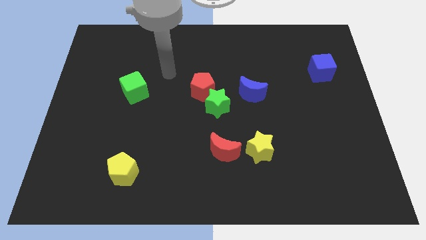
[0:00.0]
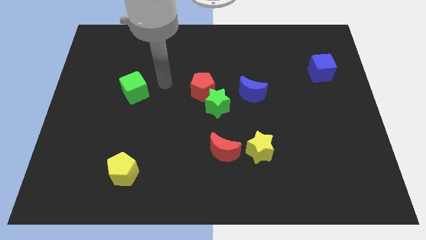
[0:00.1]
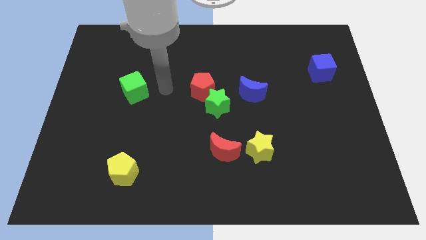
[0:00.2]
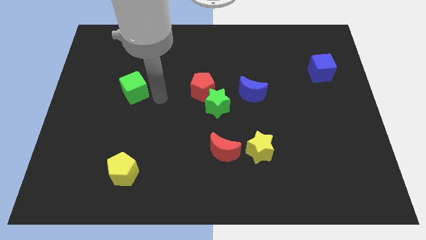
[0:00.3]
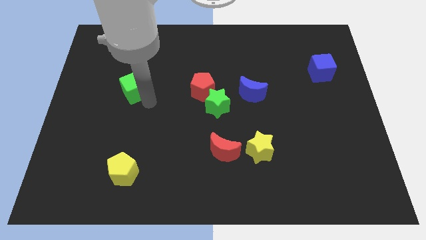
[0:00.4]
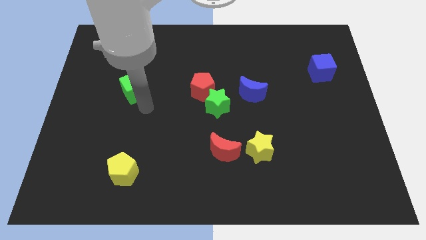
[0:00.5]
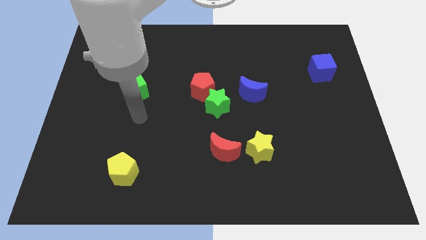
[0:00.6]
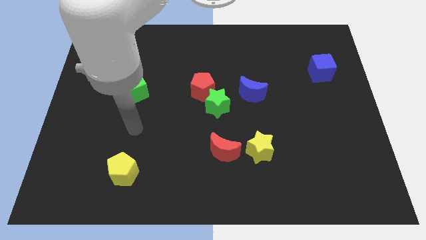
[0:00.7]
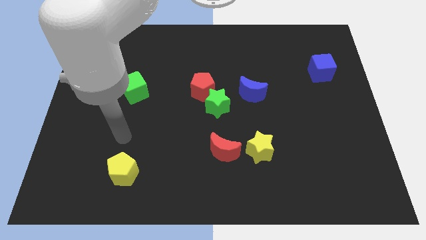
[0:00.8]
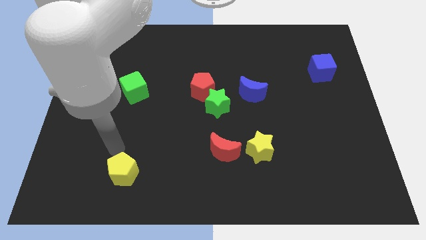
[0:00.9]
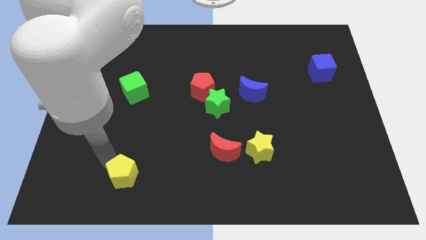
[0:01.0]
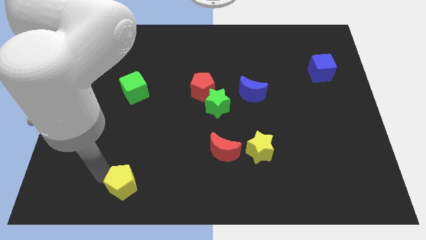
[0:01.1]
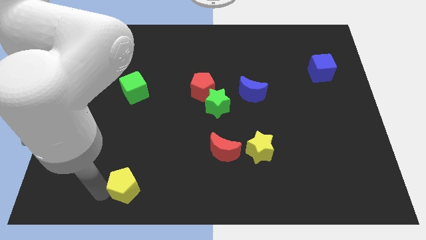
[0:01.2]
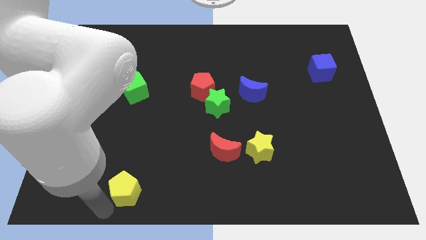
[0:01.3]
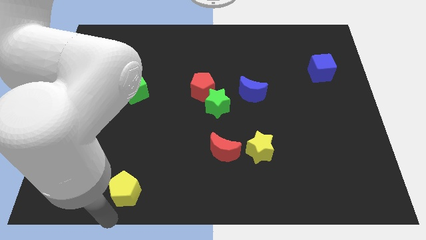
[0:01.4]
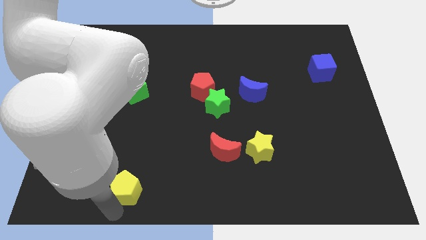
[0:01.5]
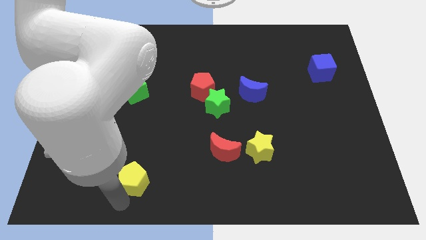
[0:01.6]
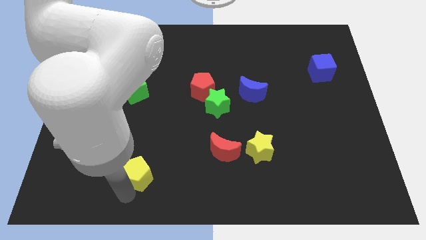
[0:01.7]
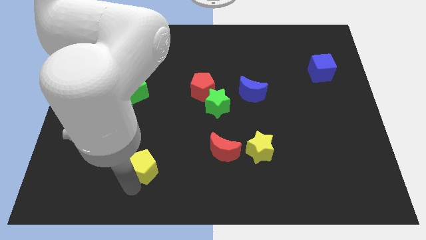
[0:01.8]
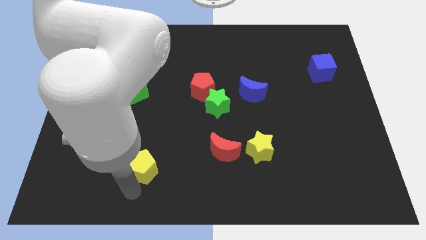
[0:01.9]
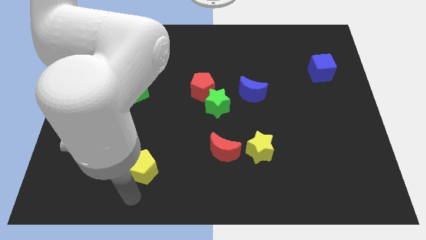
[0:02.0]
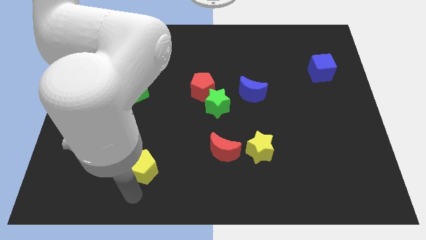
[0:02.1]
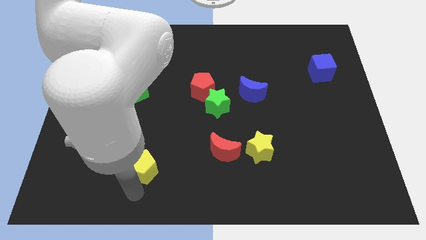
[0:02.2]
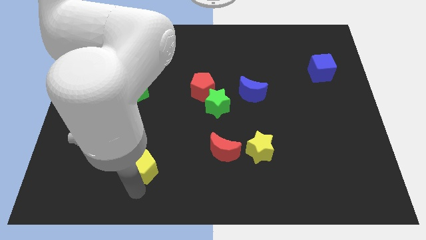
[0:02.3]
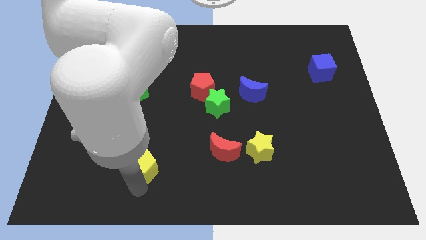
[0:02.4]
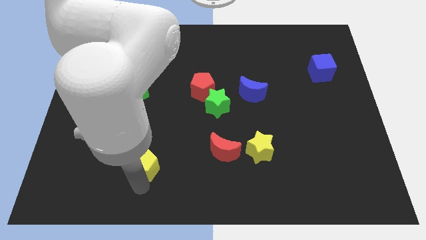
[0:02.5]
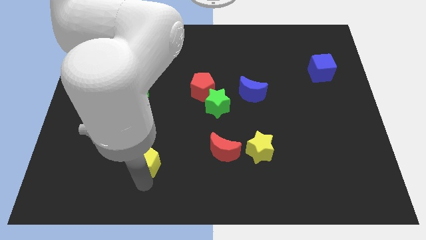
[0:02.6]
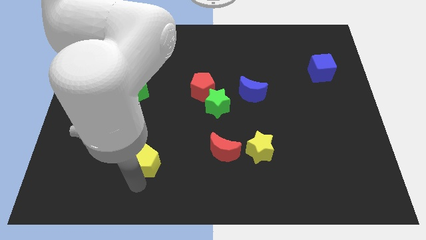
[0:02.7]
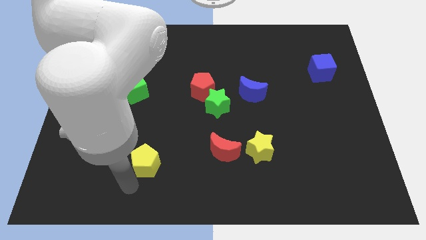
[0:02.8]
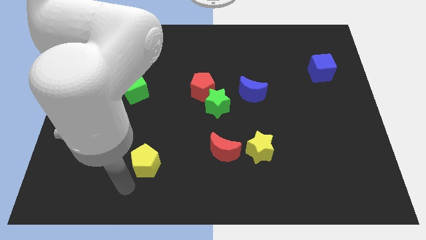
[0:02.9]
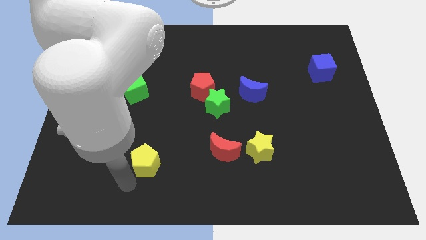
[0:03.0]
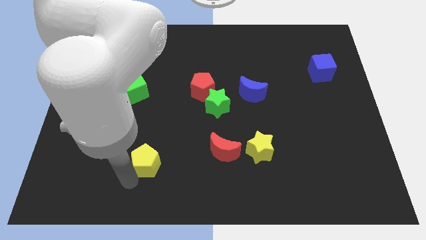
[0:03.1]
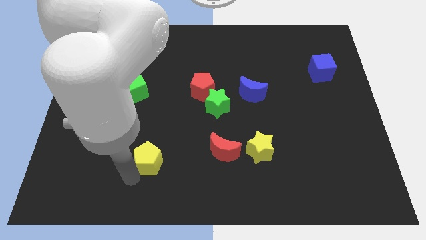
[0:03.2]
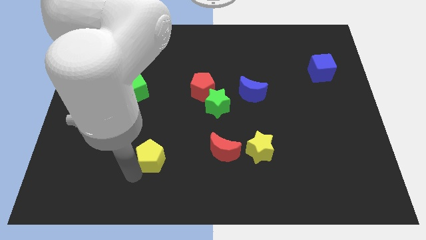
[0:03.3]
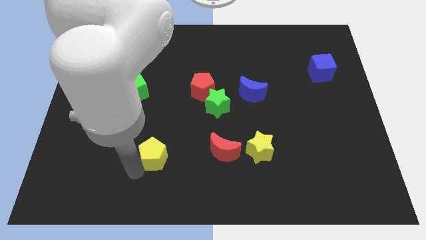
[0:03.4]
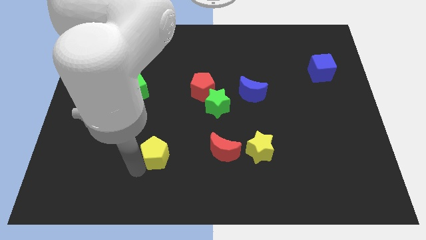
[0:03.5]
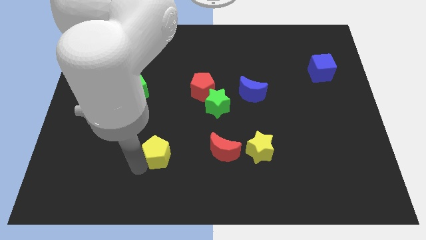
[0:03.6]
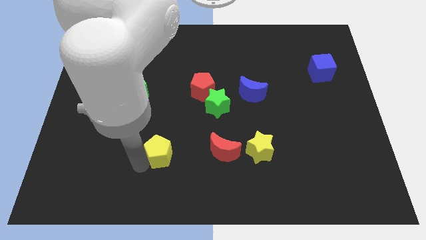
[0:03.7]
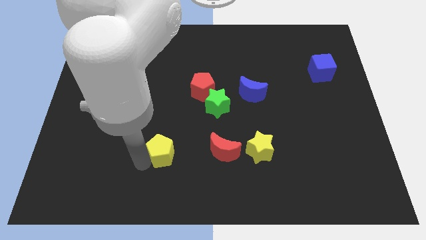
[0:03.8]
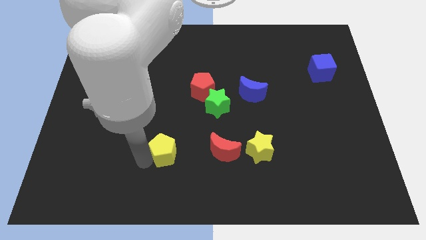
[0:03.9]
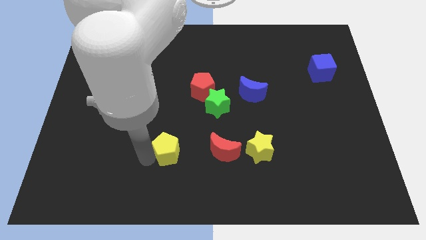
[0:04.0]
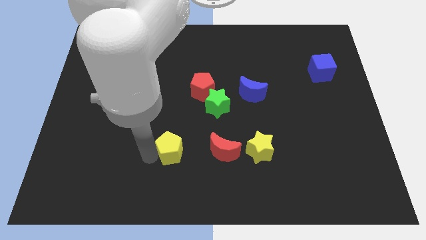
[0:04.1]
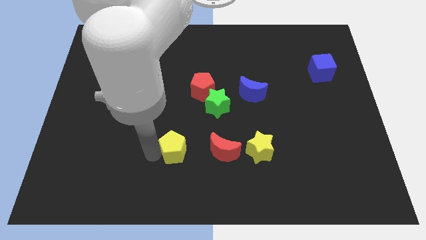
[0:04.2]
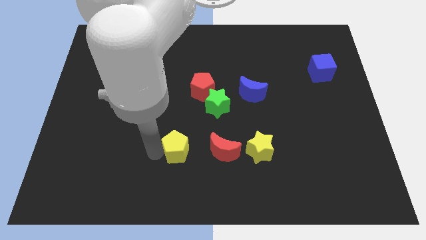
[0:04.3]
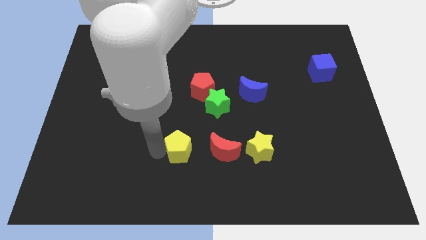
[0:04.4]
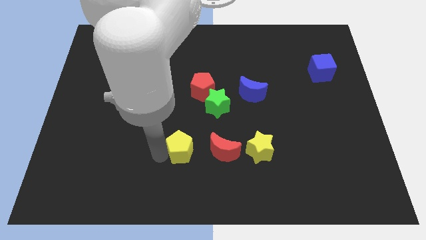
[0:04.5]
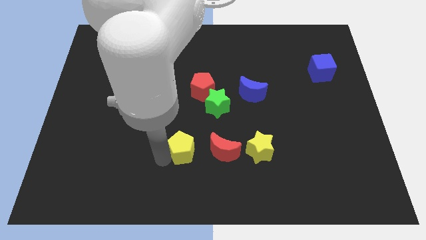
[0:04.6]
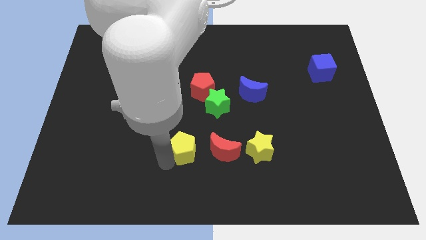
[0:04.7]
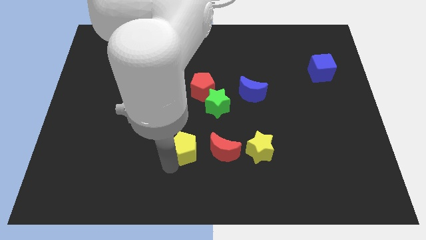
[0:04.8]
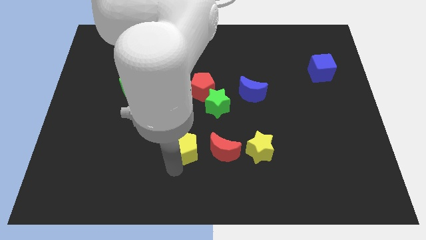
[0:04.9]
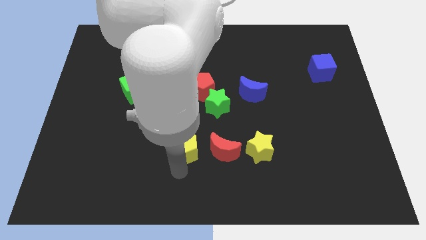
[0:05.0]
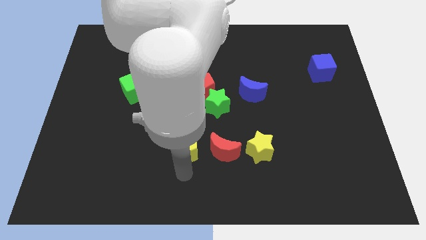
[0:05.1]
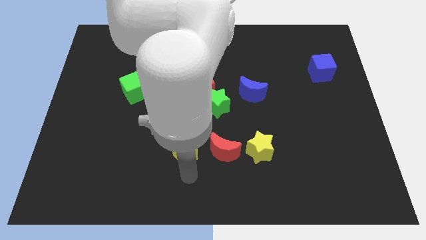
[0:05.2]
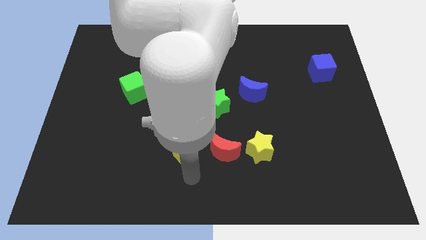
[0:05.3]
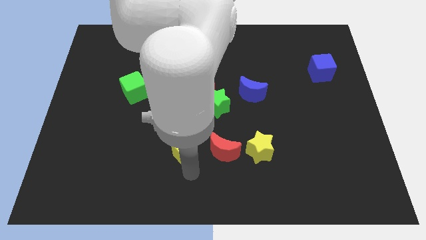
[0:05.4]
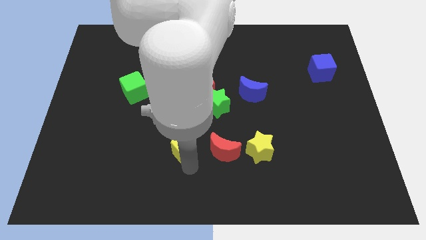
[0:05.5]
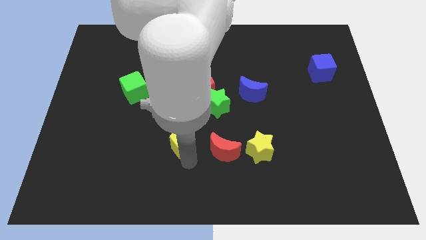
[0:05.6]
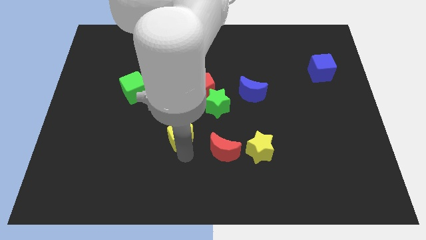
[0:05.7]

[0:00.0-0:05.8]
move the yellow pentagon to the bottom side of the red pentagon

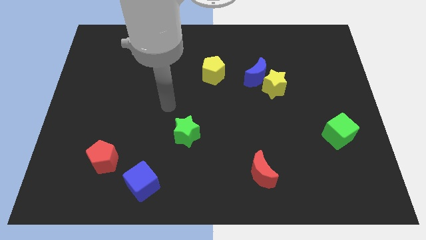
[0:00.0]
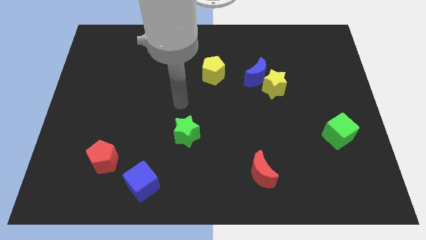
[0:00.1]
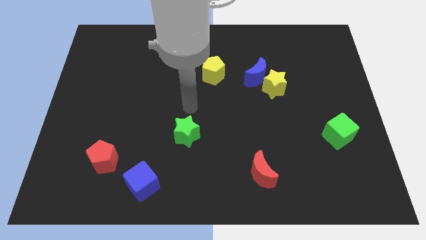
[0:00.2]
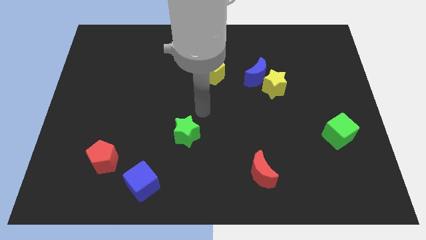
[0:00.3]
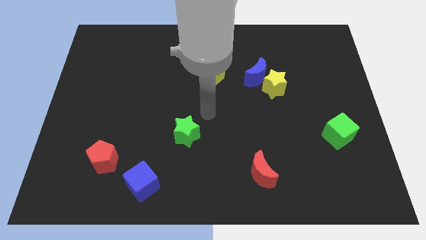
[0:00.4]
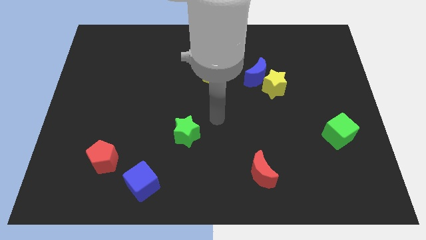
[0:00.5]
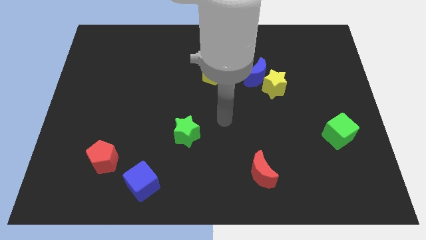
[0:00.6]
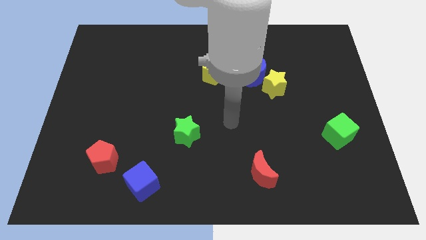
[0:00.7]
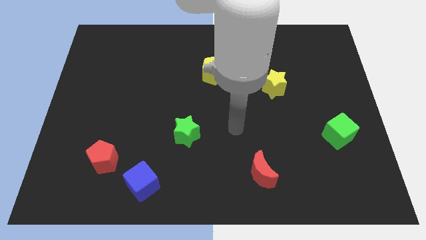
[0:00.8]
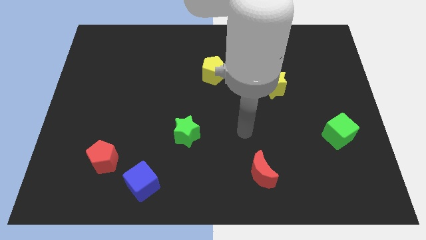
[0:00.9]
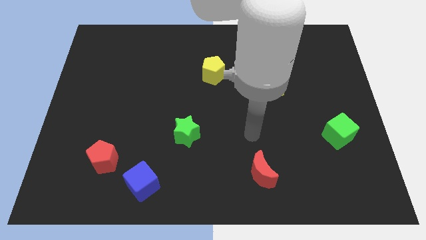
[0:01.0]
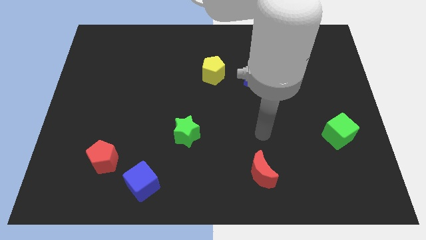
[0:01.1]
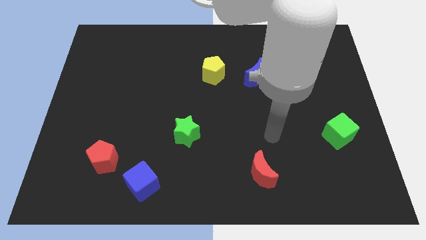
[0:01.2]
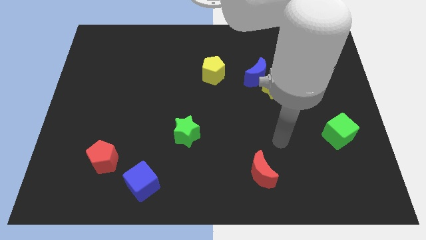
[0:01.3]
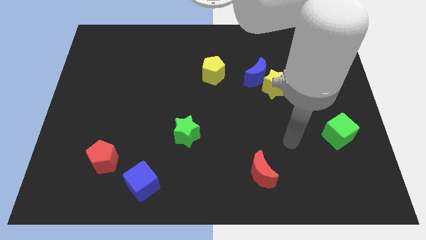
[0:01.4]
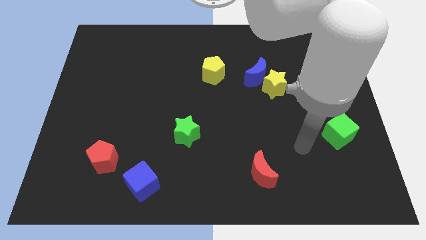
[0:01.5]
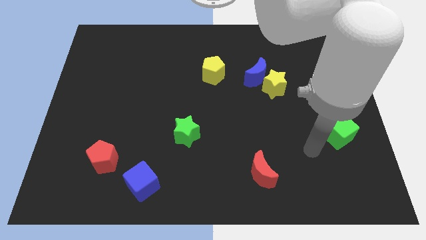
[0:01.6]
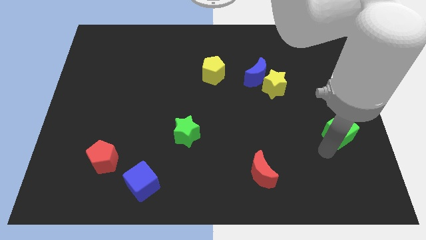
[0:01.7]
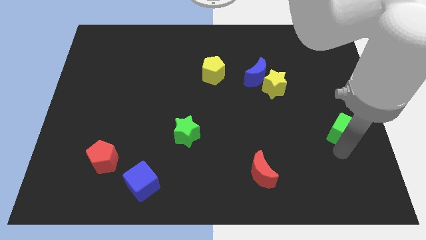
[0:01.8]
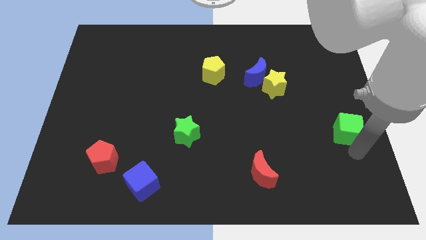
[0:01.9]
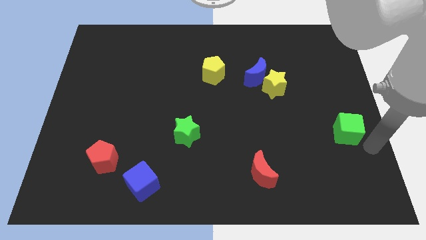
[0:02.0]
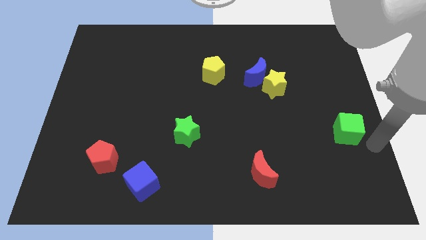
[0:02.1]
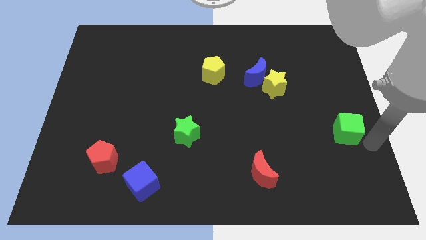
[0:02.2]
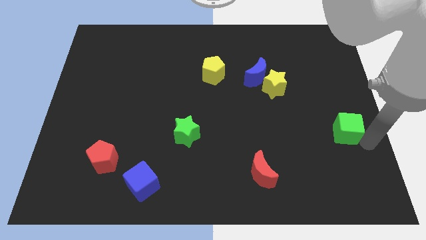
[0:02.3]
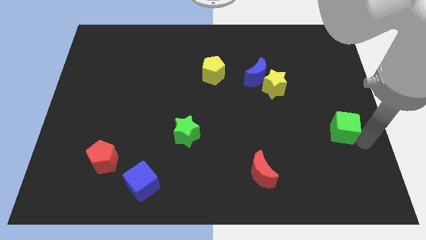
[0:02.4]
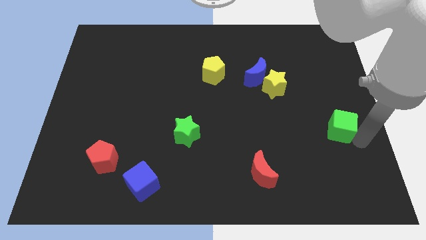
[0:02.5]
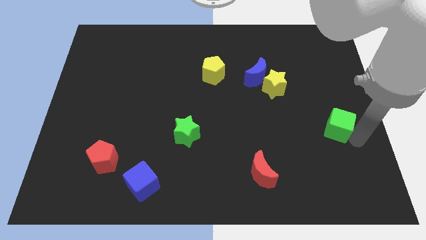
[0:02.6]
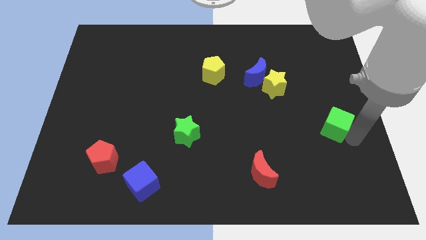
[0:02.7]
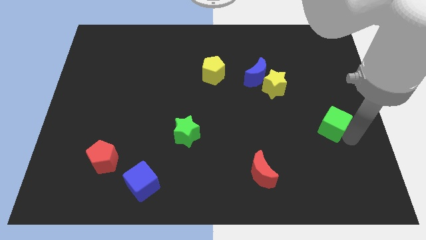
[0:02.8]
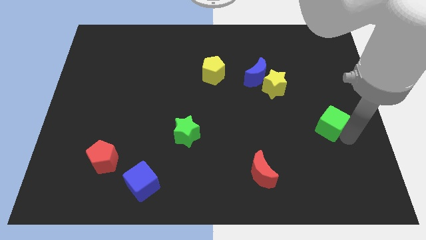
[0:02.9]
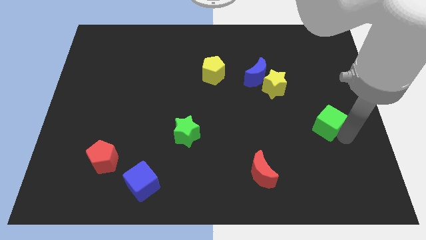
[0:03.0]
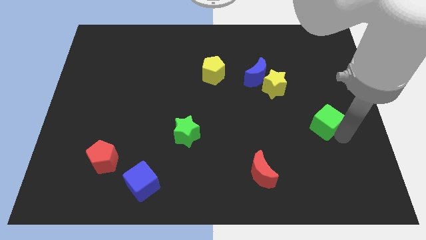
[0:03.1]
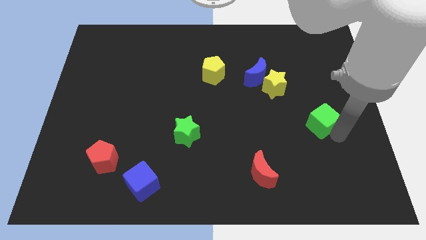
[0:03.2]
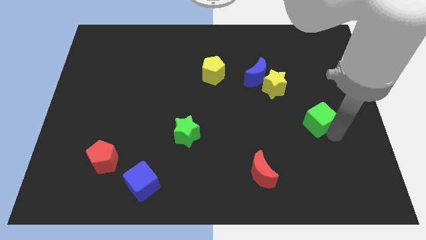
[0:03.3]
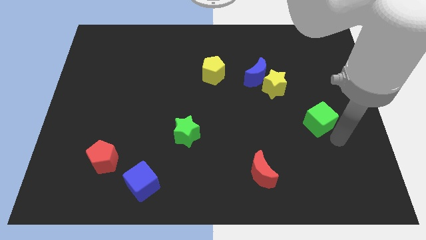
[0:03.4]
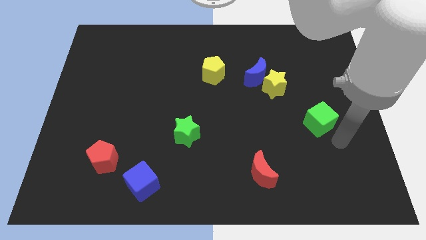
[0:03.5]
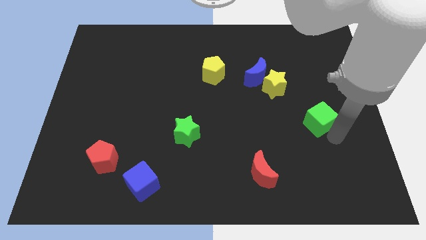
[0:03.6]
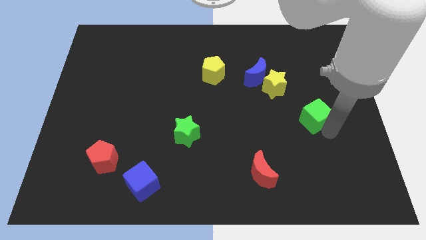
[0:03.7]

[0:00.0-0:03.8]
put the green cube diagonally down and to the right of the yellow star
